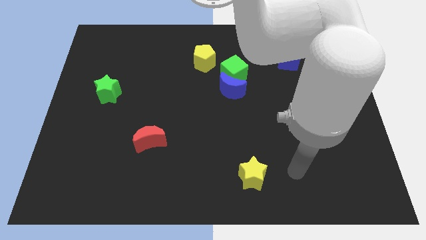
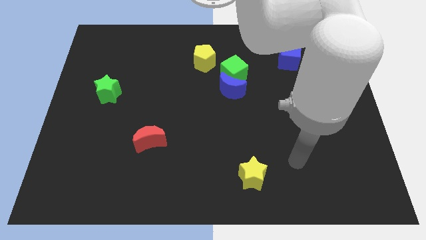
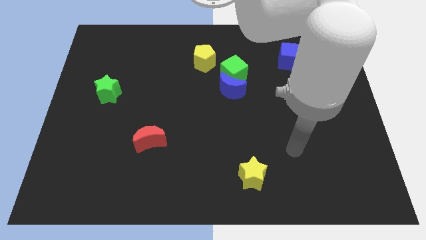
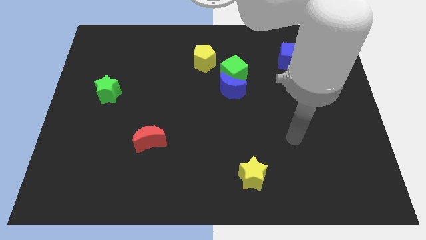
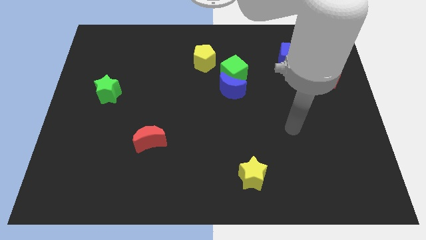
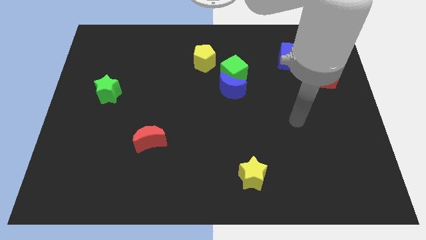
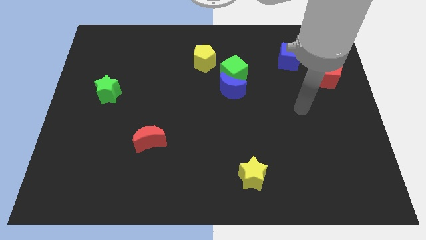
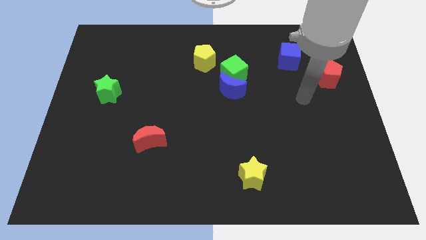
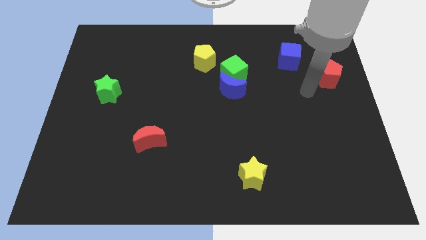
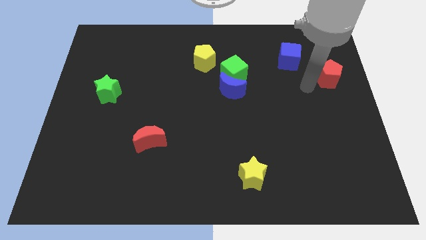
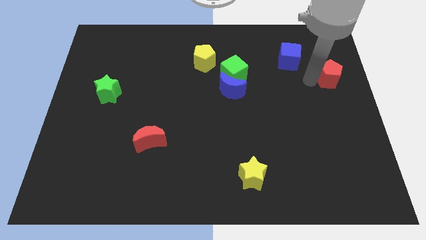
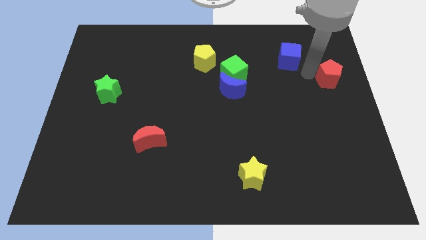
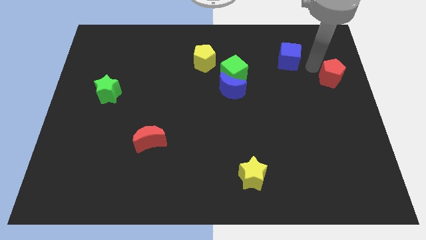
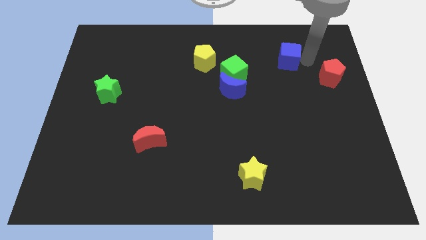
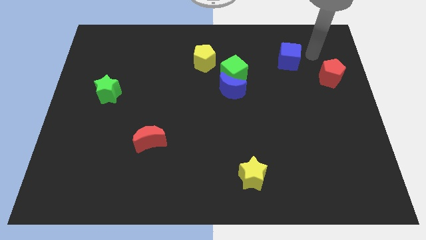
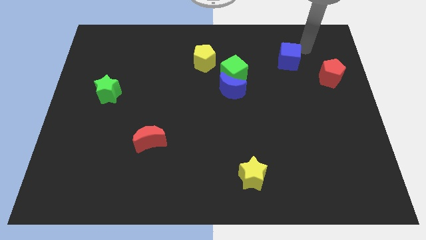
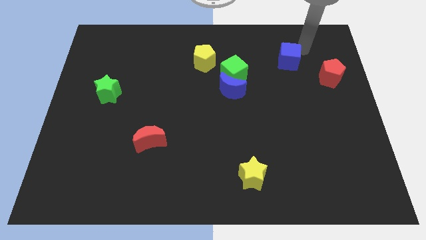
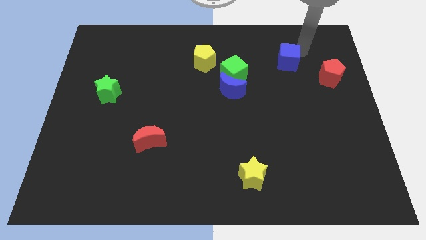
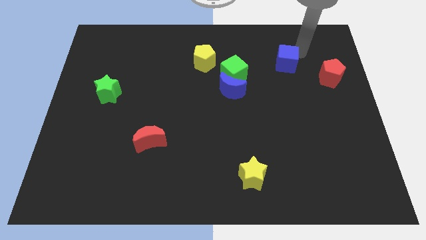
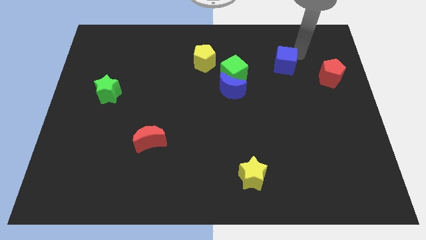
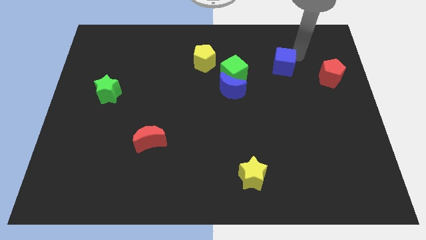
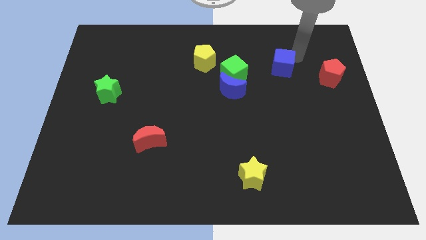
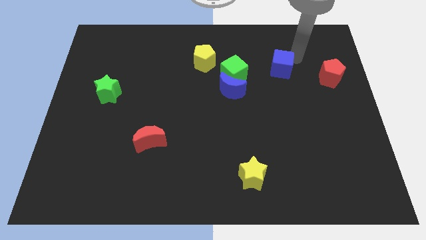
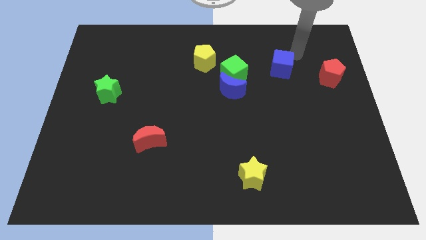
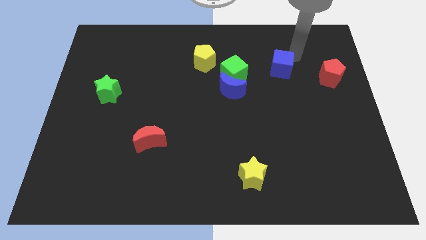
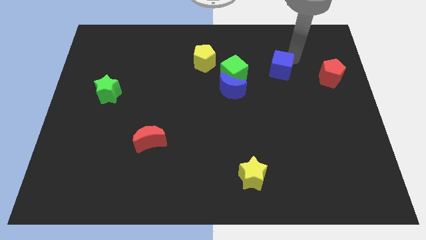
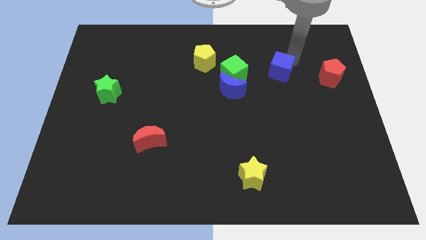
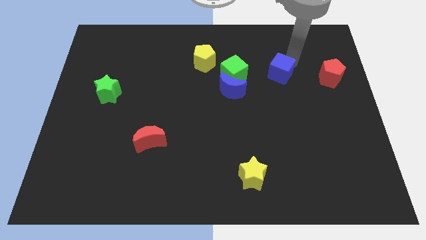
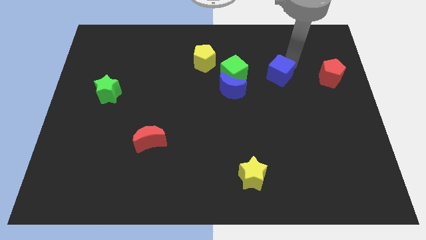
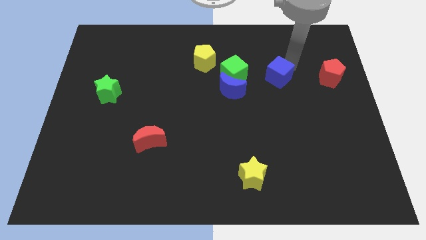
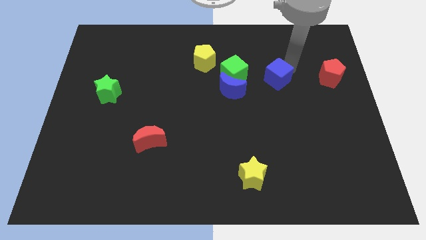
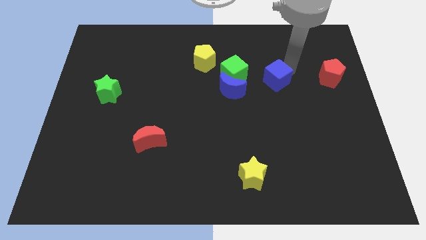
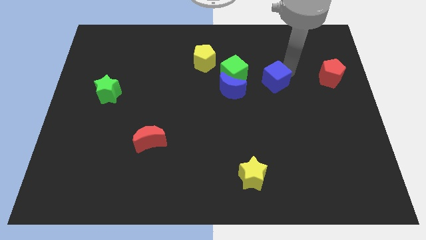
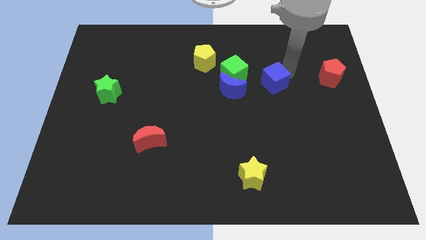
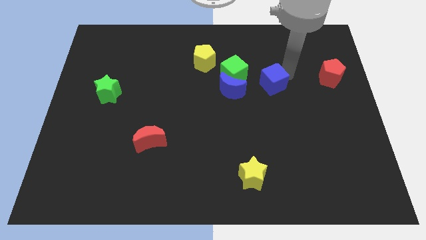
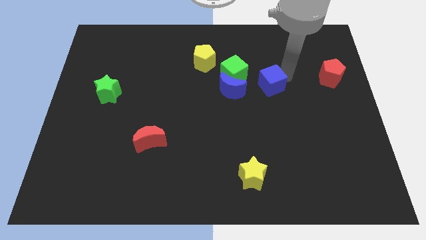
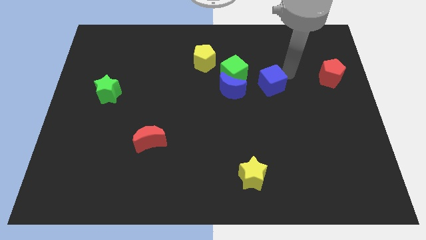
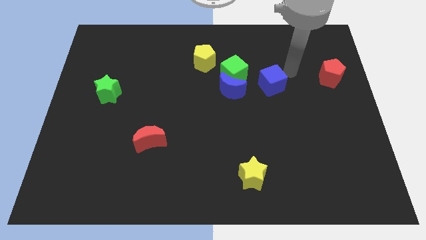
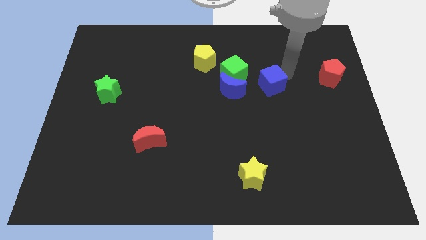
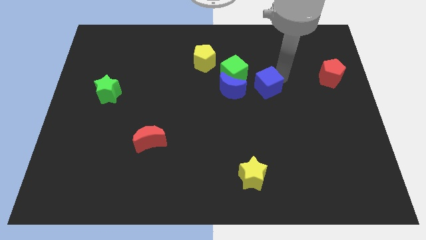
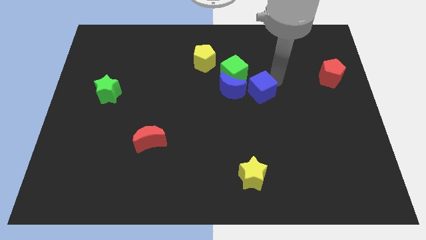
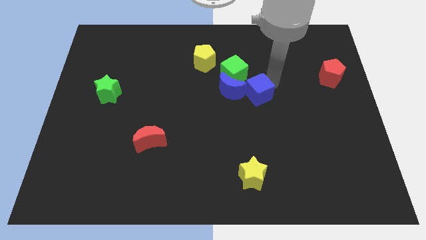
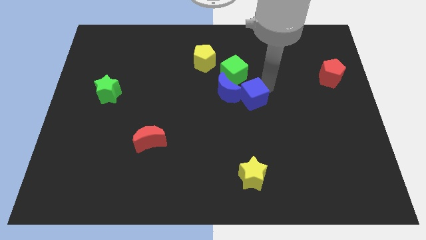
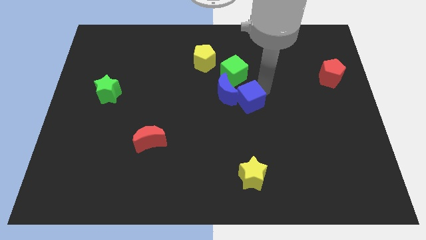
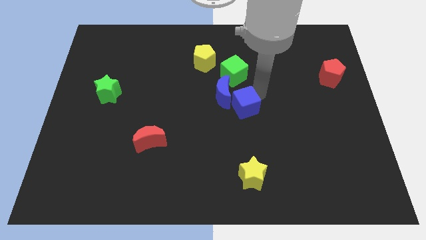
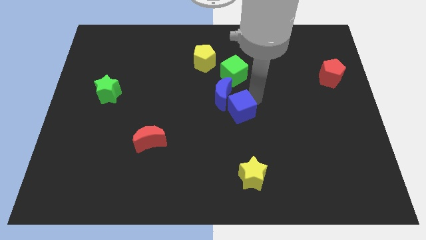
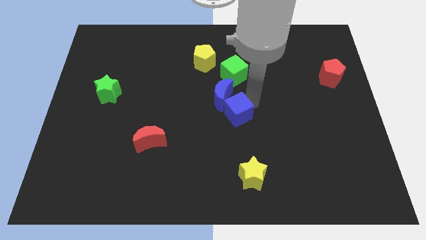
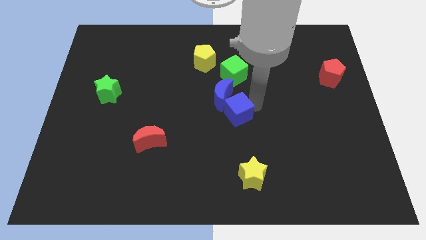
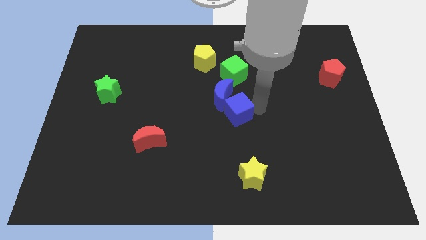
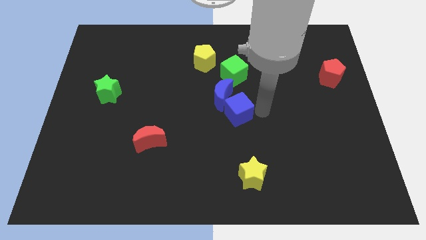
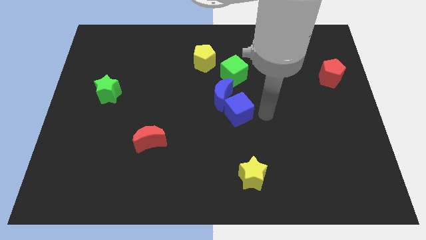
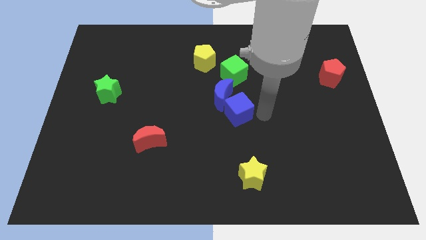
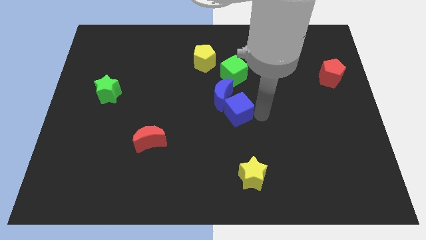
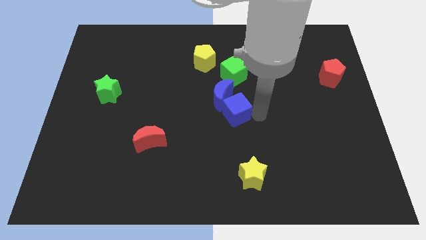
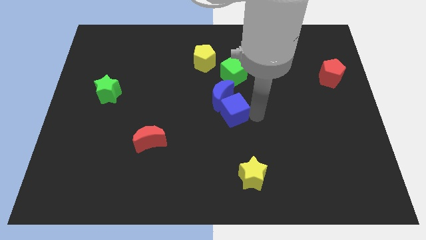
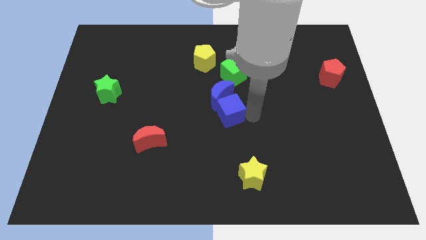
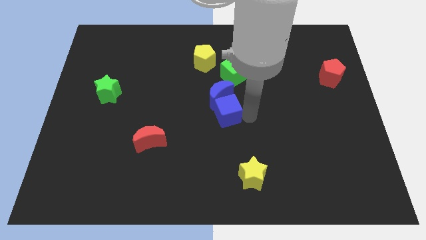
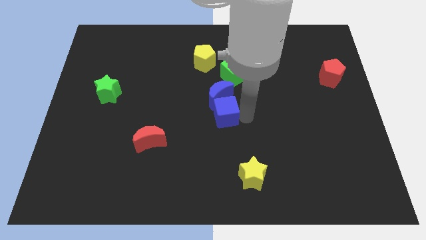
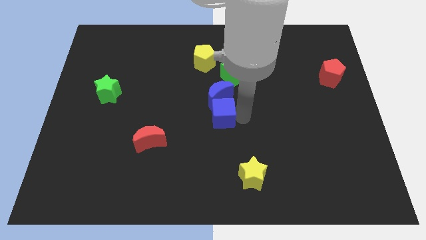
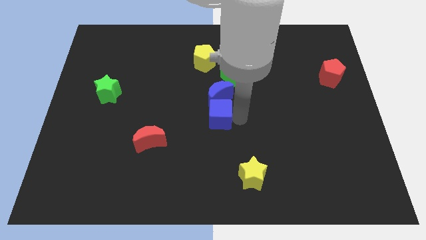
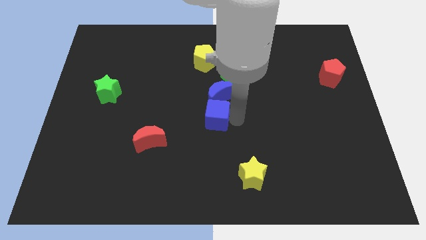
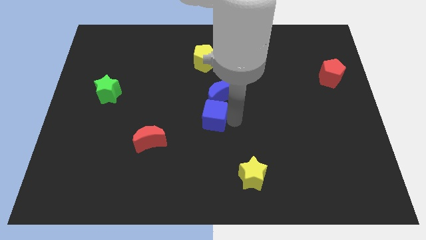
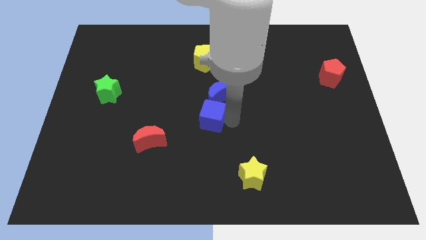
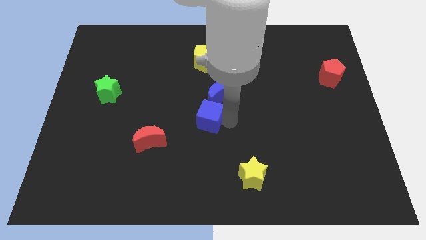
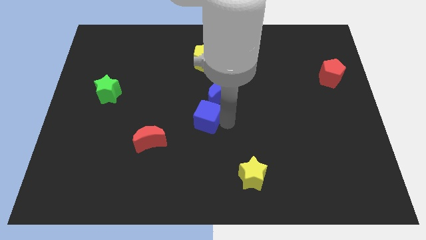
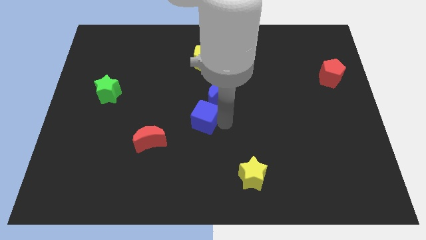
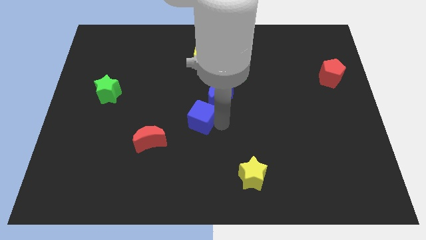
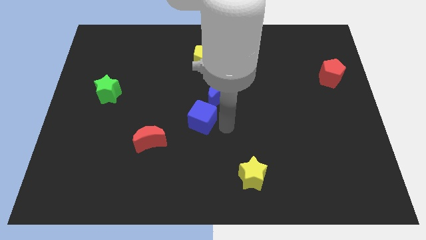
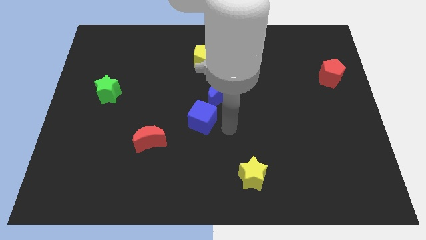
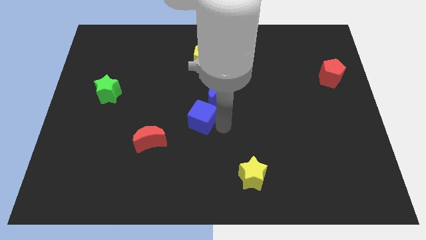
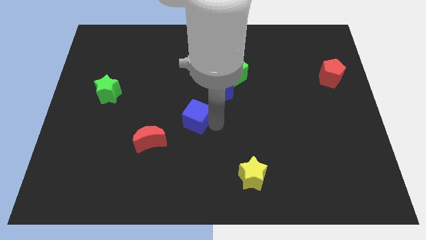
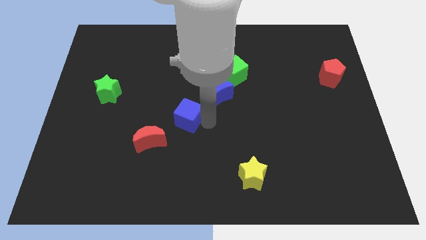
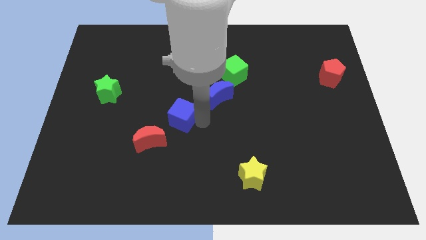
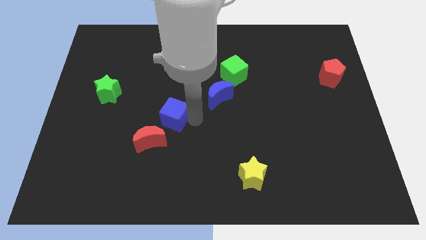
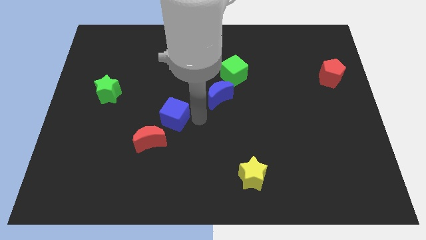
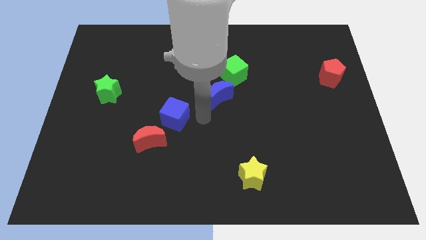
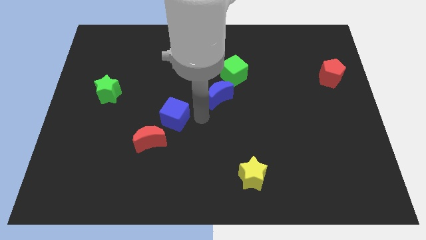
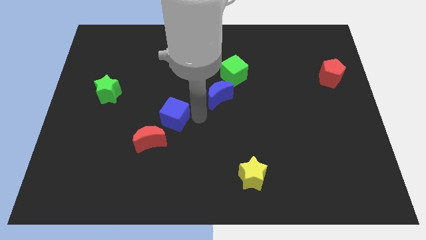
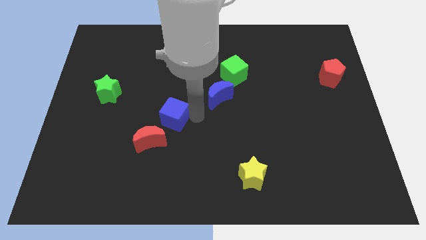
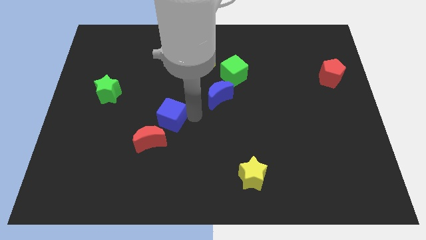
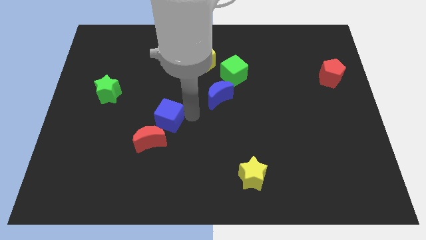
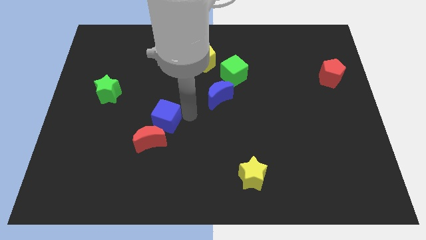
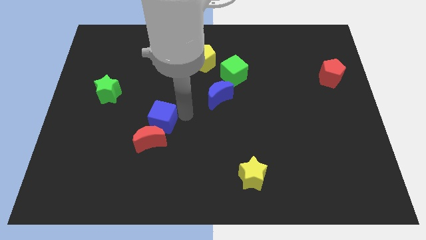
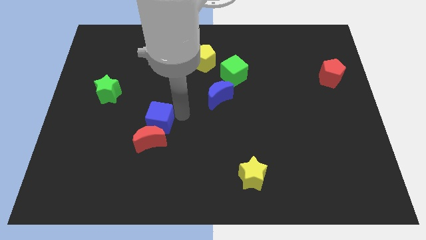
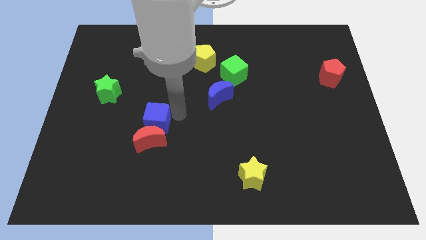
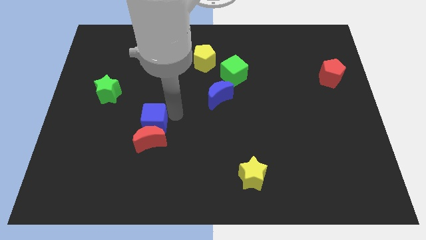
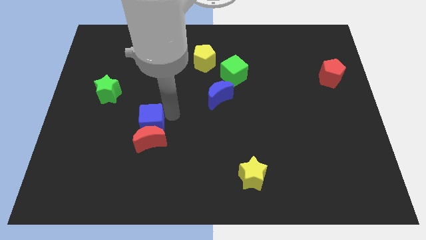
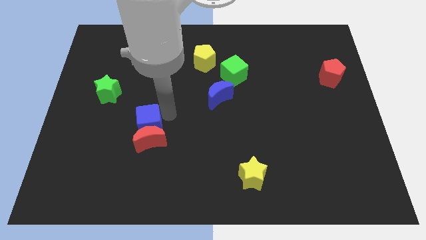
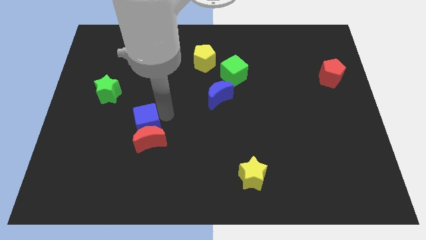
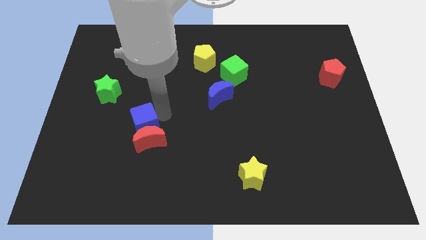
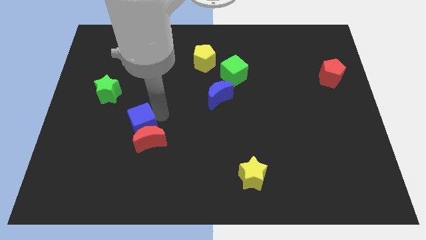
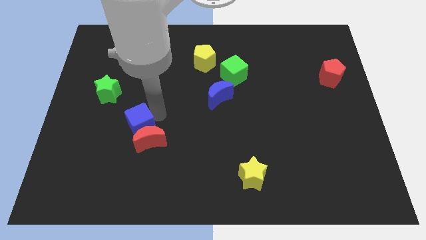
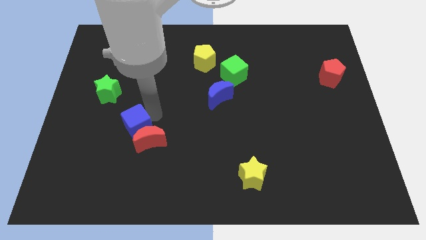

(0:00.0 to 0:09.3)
slide the blue cube left of the red moon
